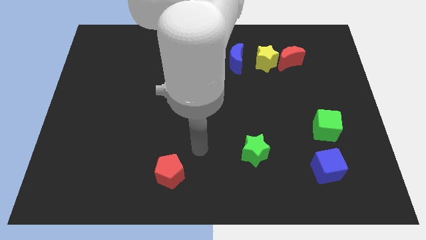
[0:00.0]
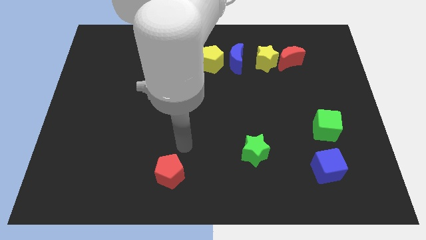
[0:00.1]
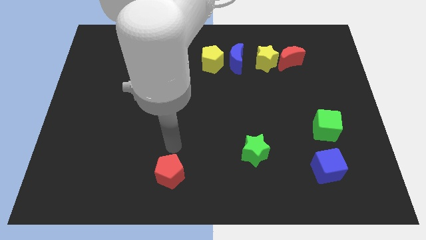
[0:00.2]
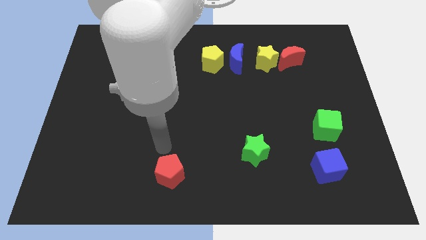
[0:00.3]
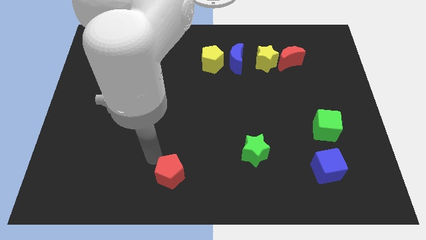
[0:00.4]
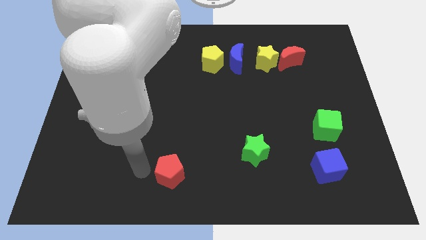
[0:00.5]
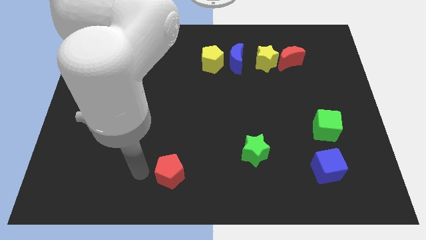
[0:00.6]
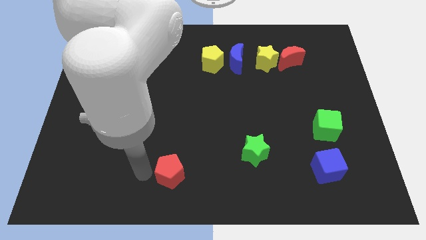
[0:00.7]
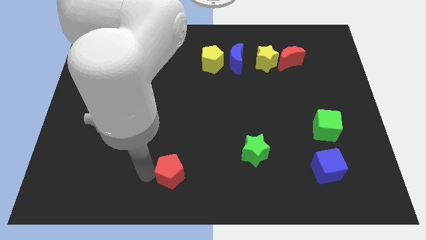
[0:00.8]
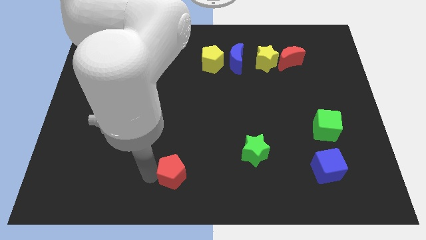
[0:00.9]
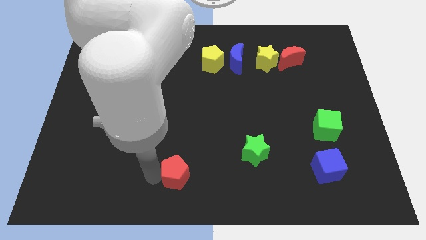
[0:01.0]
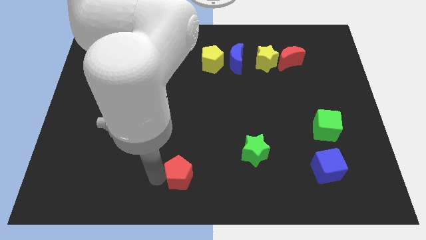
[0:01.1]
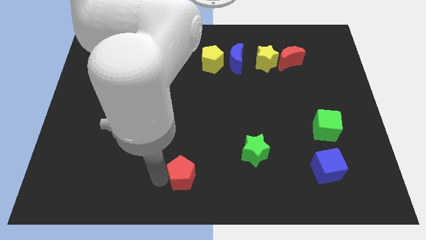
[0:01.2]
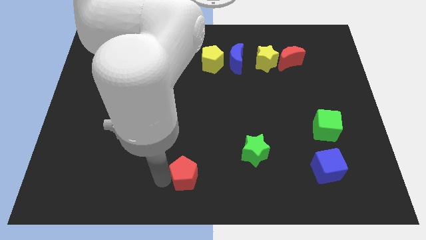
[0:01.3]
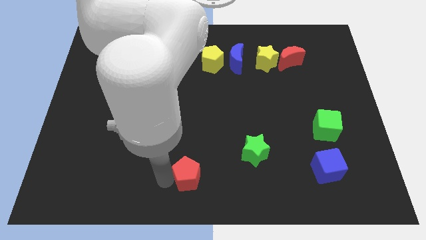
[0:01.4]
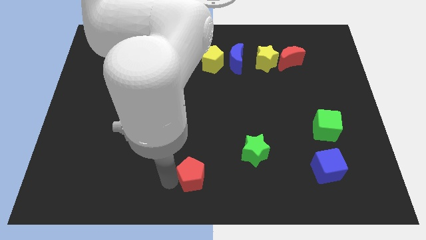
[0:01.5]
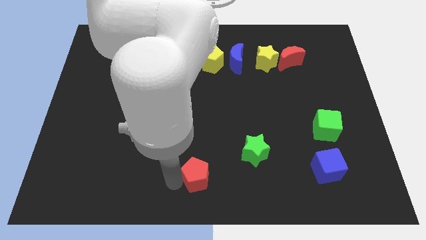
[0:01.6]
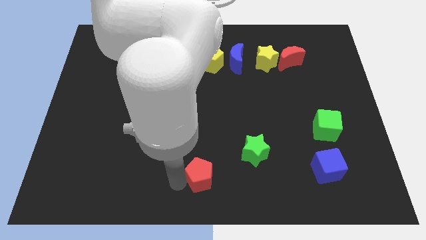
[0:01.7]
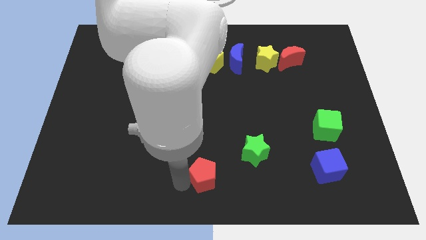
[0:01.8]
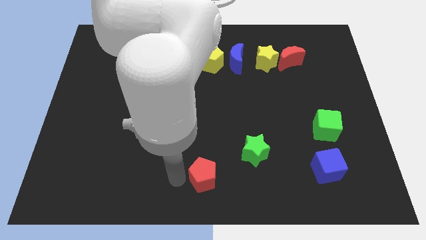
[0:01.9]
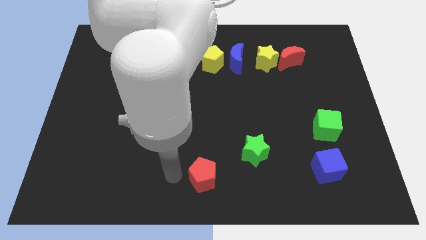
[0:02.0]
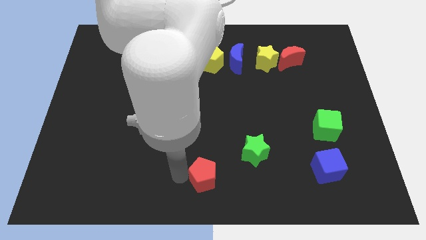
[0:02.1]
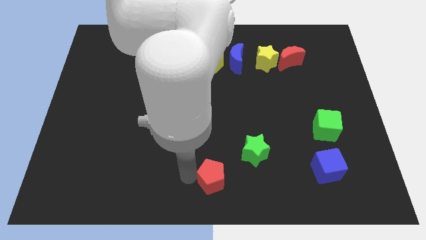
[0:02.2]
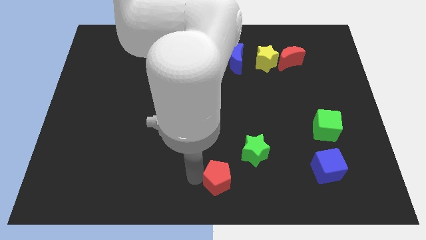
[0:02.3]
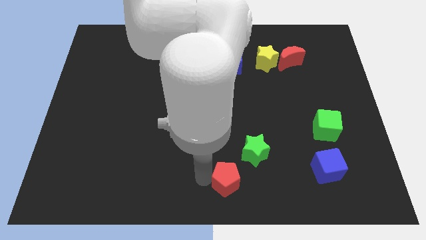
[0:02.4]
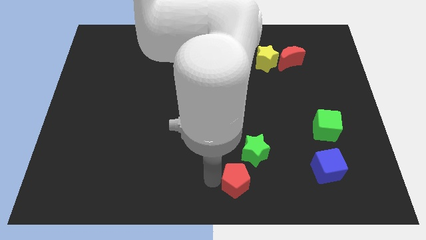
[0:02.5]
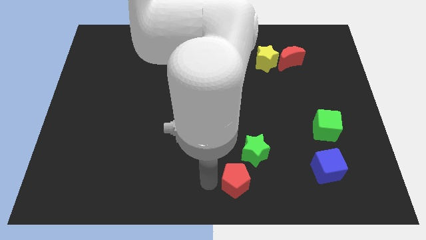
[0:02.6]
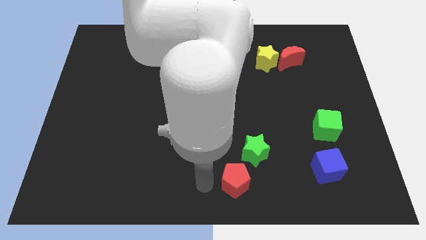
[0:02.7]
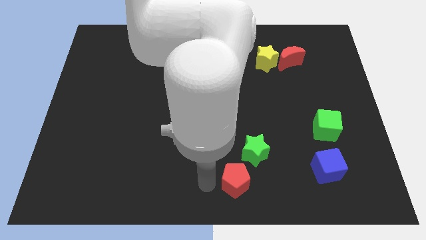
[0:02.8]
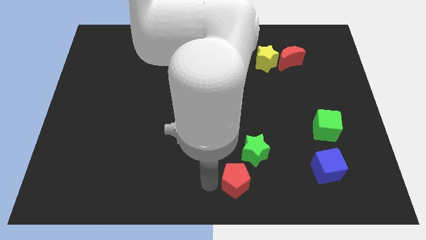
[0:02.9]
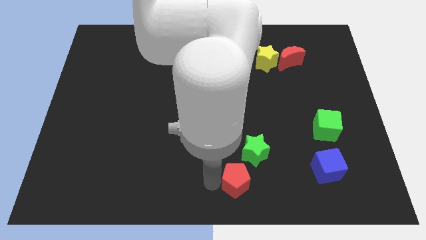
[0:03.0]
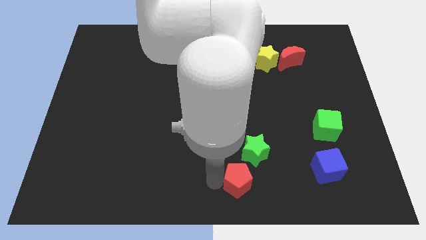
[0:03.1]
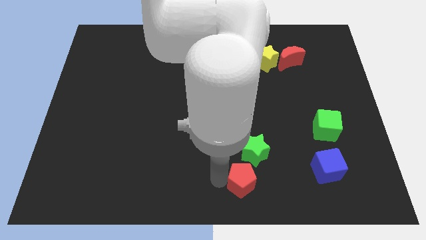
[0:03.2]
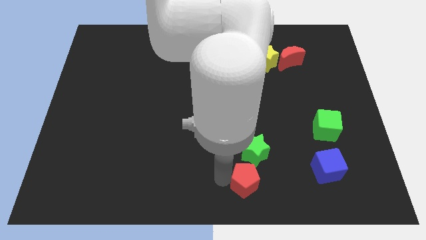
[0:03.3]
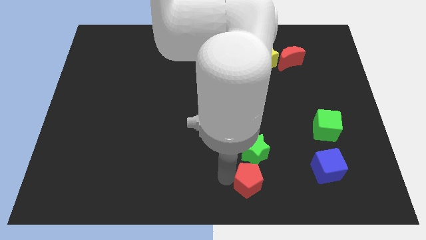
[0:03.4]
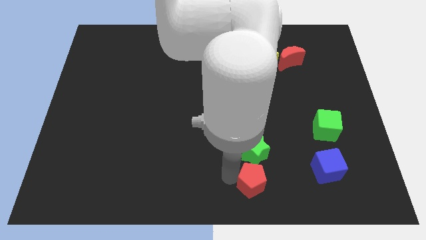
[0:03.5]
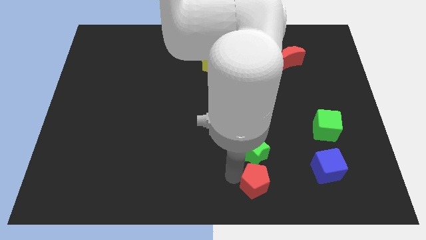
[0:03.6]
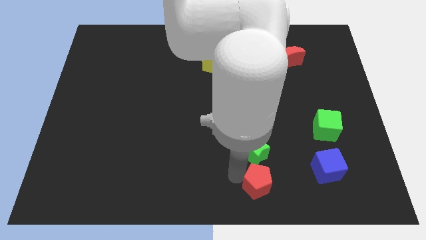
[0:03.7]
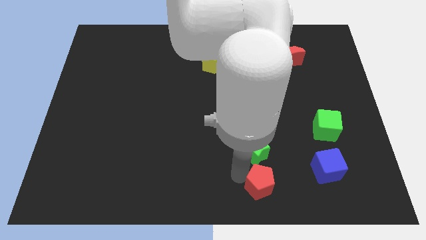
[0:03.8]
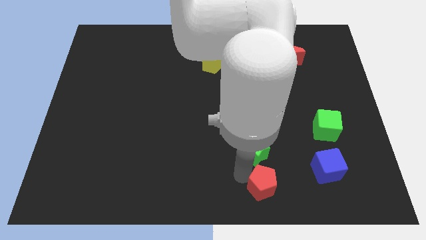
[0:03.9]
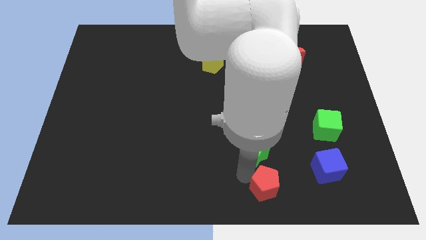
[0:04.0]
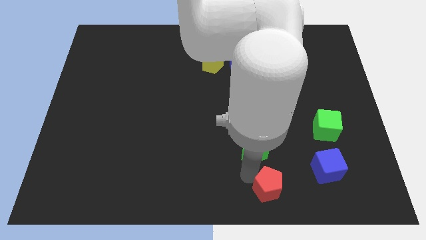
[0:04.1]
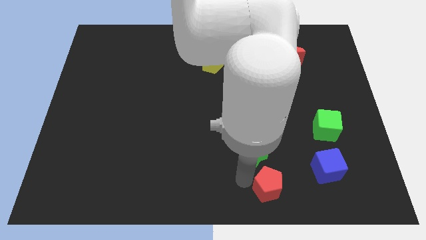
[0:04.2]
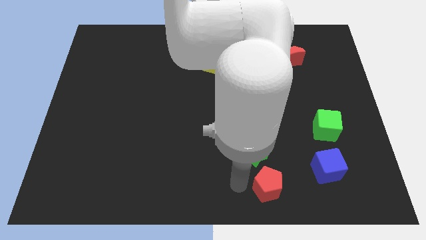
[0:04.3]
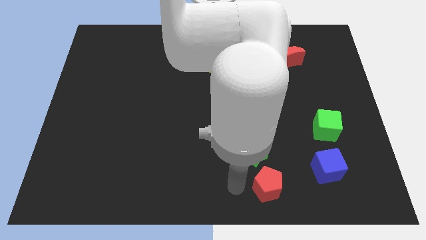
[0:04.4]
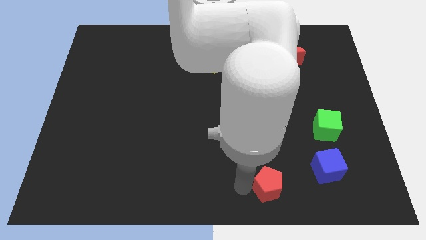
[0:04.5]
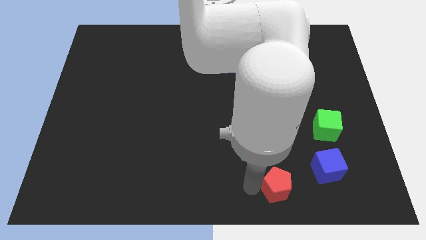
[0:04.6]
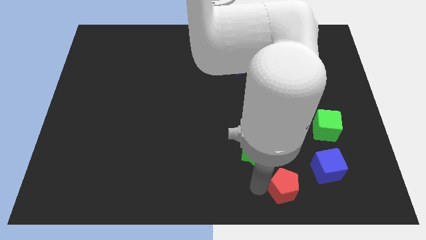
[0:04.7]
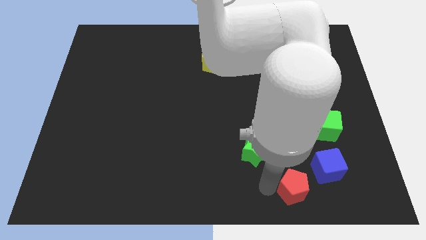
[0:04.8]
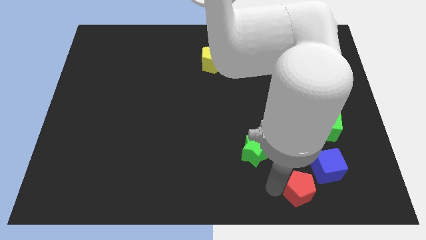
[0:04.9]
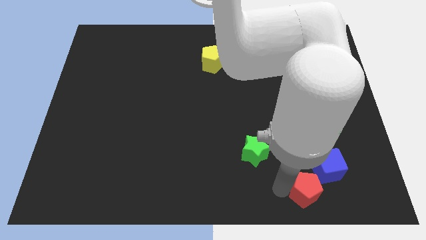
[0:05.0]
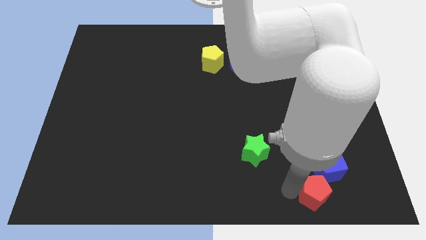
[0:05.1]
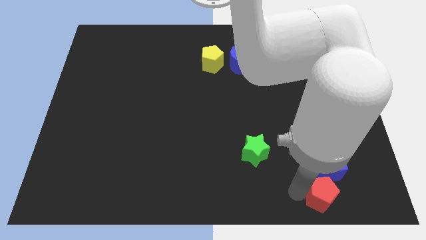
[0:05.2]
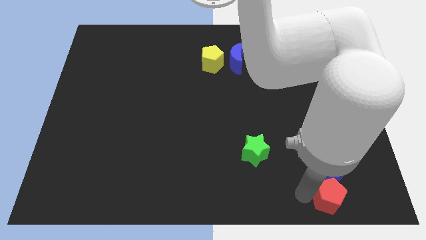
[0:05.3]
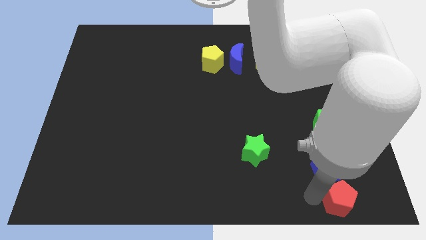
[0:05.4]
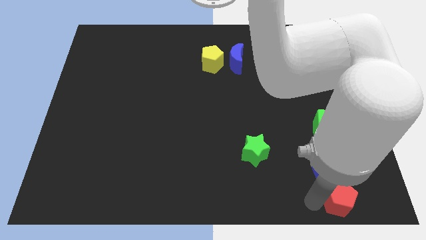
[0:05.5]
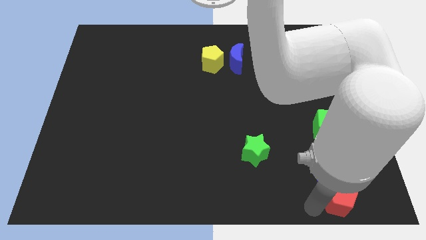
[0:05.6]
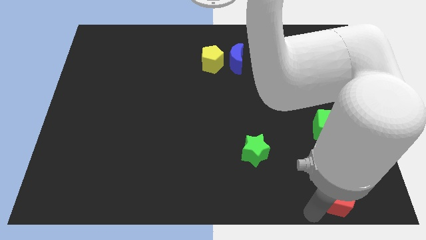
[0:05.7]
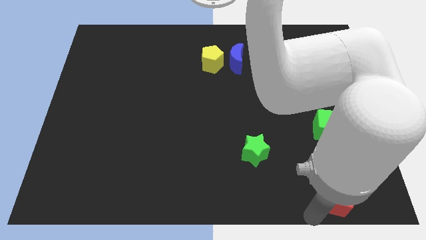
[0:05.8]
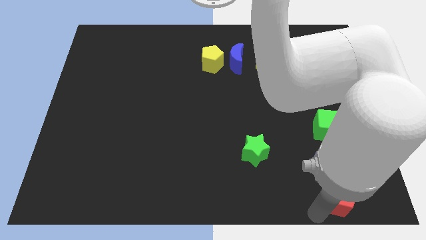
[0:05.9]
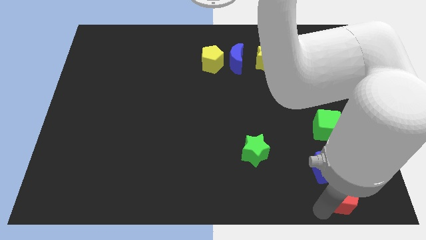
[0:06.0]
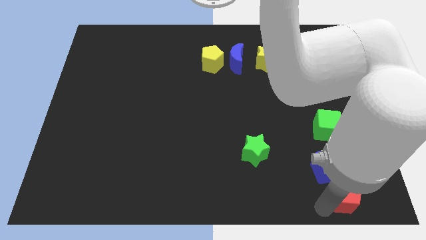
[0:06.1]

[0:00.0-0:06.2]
move the red pentagon to the bottom right

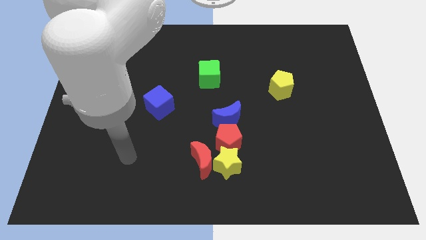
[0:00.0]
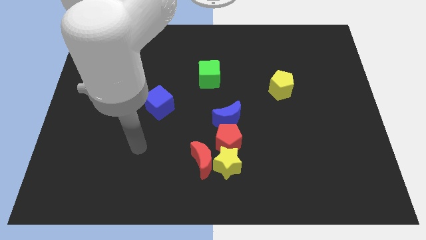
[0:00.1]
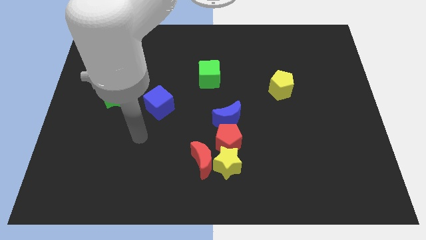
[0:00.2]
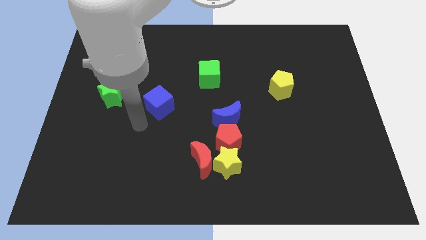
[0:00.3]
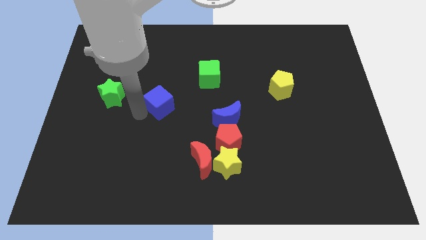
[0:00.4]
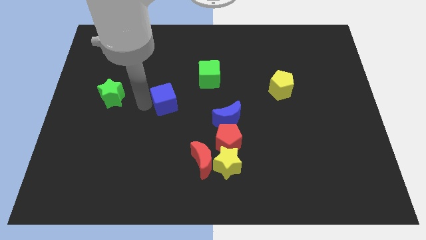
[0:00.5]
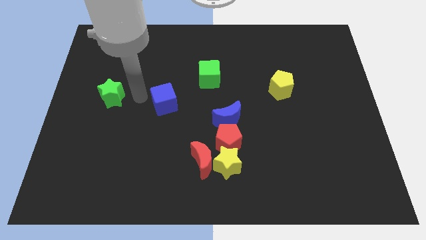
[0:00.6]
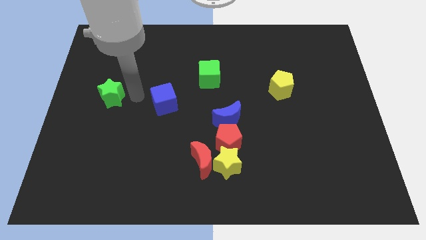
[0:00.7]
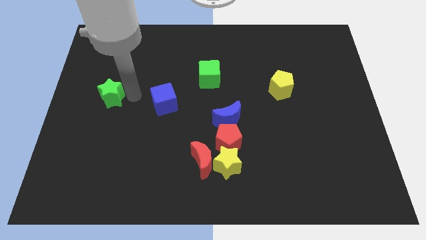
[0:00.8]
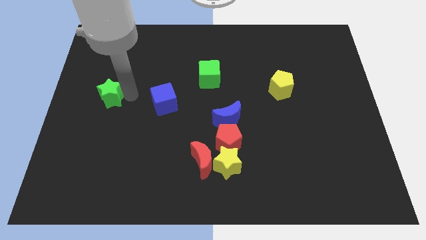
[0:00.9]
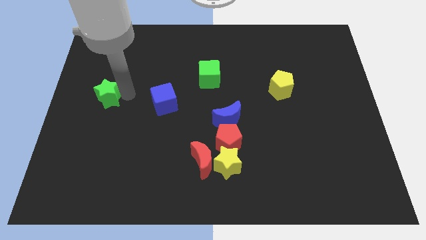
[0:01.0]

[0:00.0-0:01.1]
slide the green star to the left side of the board
